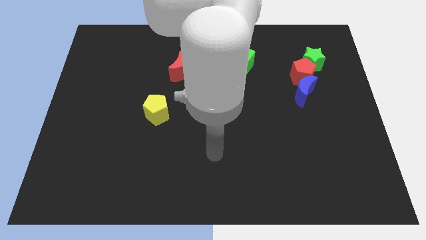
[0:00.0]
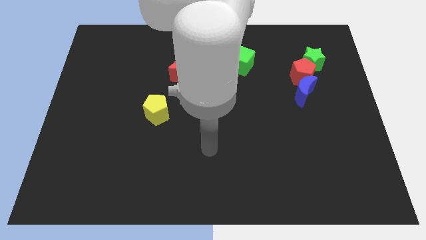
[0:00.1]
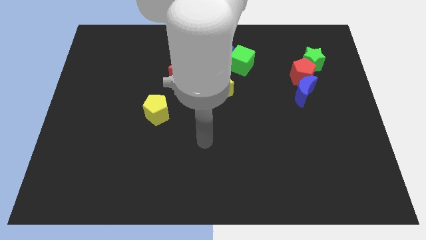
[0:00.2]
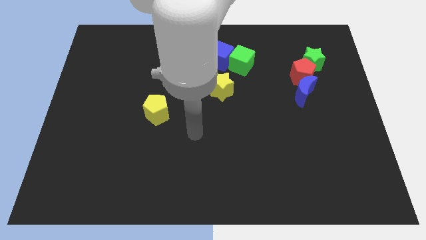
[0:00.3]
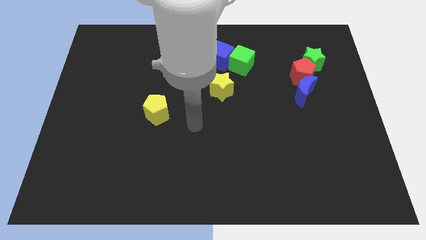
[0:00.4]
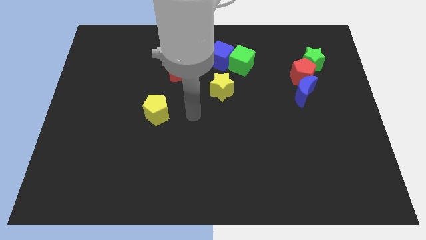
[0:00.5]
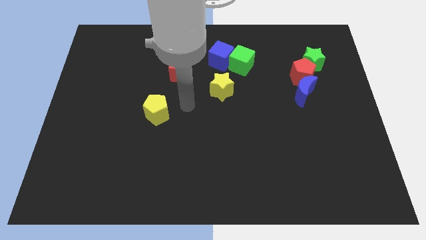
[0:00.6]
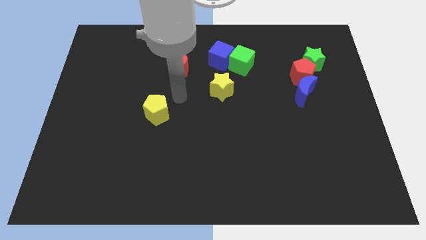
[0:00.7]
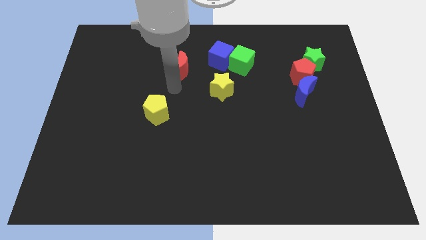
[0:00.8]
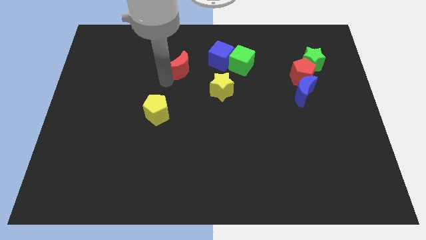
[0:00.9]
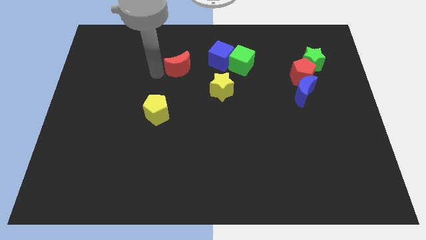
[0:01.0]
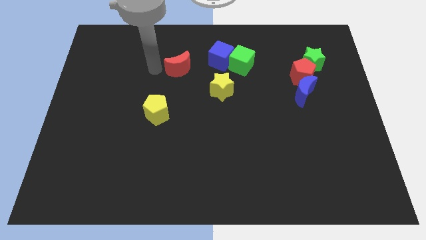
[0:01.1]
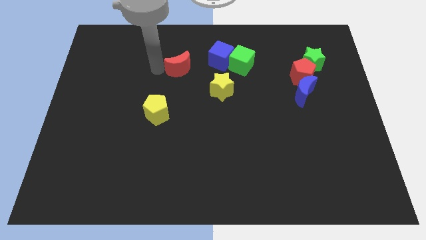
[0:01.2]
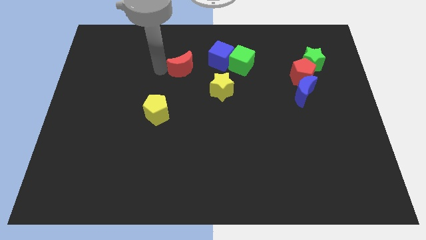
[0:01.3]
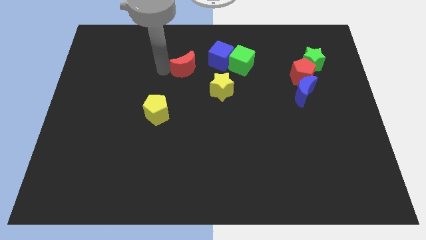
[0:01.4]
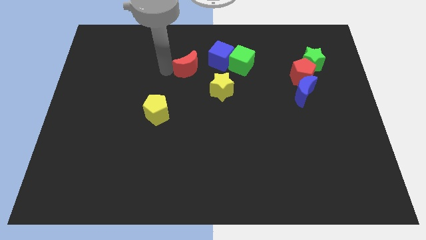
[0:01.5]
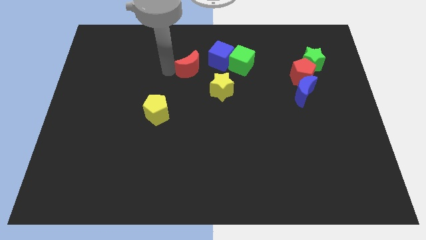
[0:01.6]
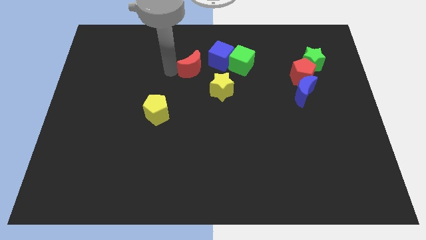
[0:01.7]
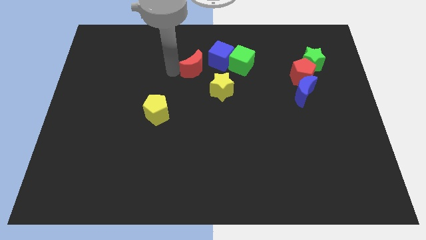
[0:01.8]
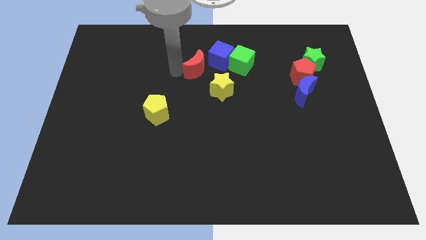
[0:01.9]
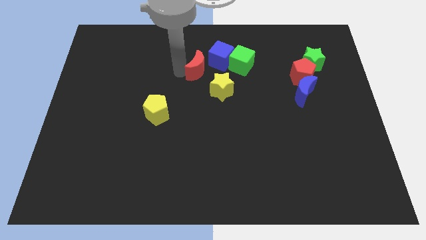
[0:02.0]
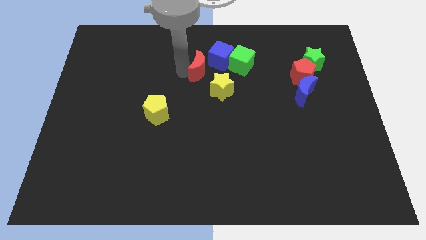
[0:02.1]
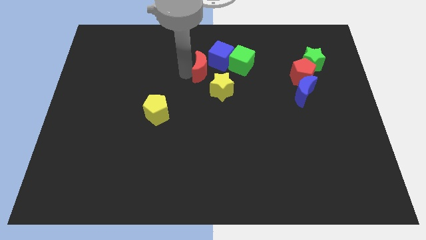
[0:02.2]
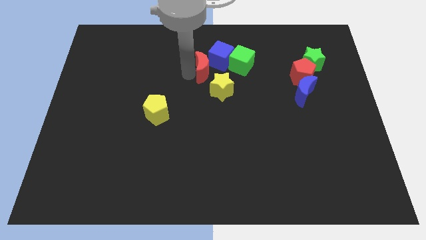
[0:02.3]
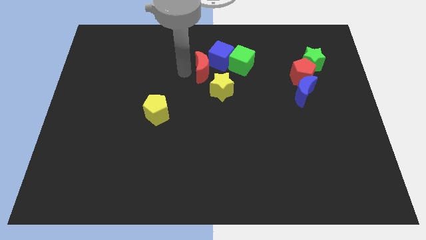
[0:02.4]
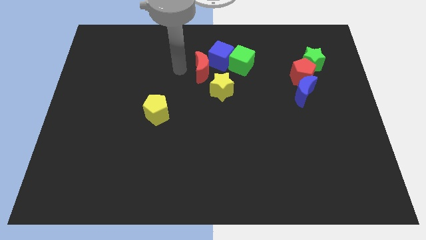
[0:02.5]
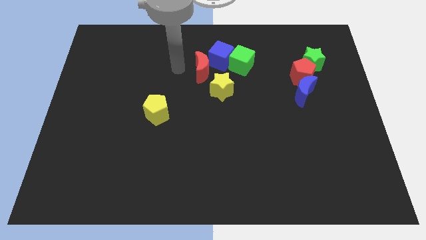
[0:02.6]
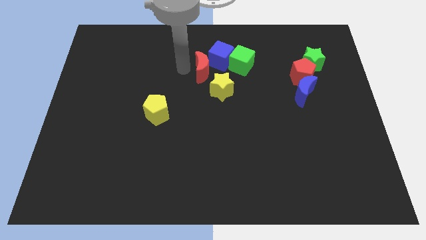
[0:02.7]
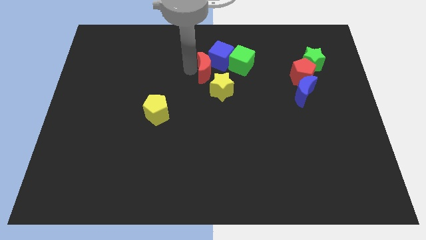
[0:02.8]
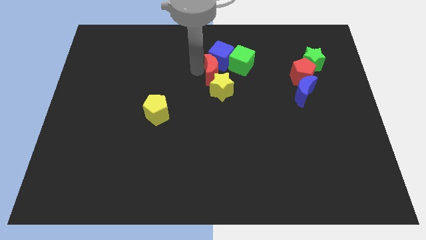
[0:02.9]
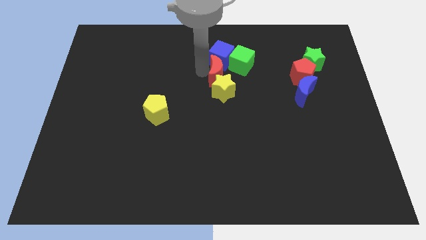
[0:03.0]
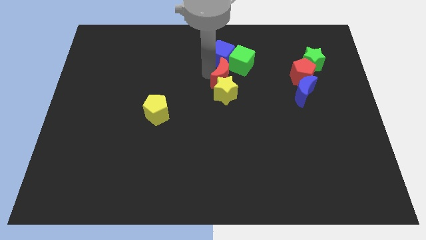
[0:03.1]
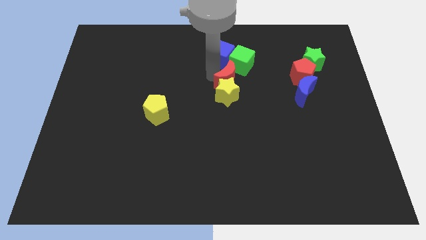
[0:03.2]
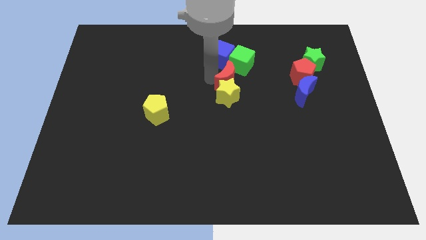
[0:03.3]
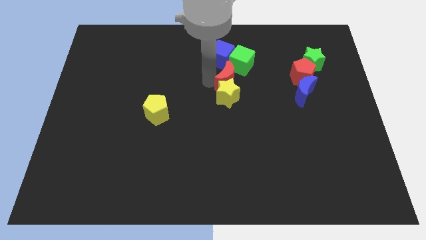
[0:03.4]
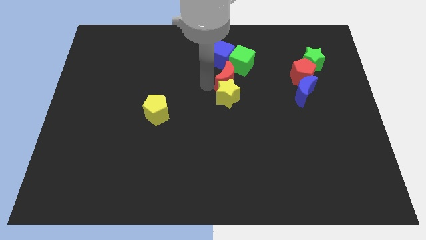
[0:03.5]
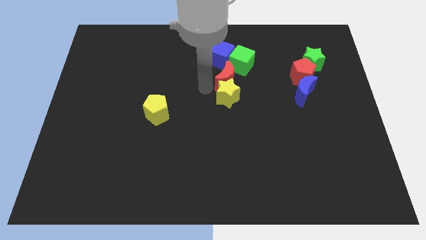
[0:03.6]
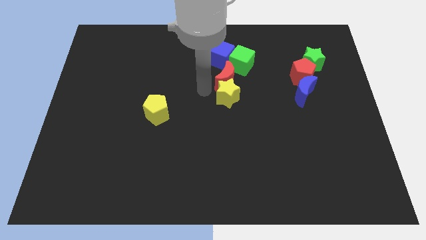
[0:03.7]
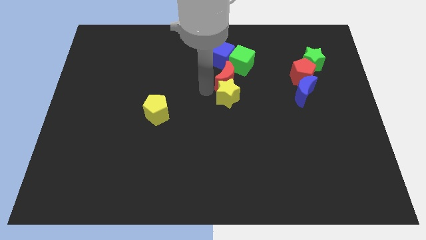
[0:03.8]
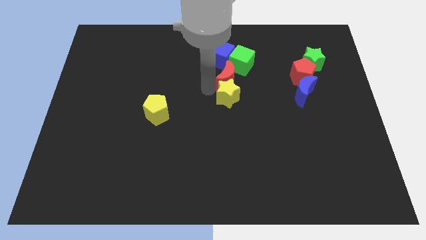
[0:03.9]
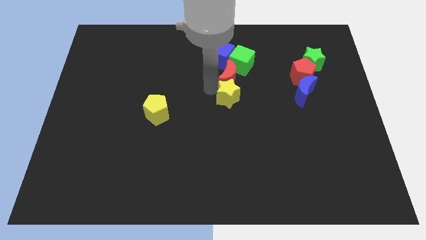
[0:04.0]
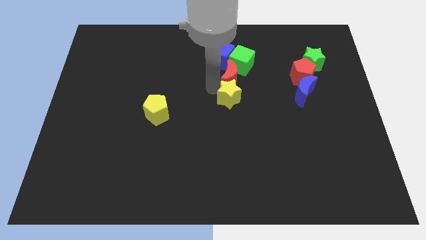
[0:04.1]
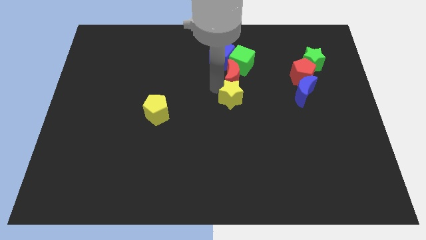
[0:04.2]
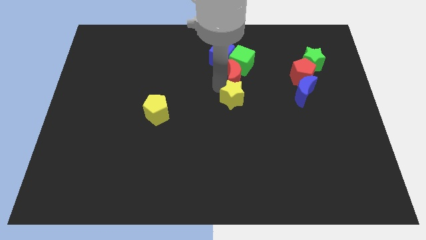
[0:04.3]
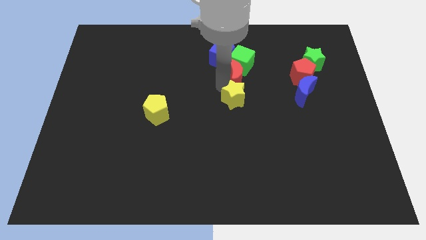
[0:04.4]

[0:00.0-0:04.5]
move the red moon to the bottom right side of the green cube

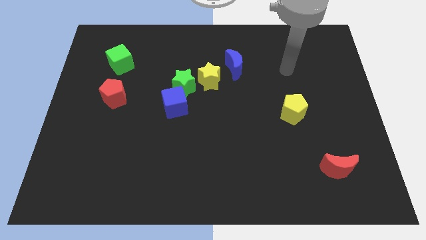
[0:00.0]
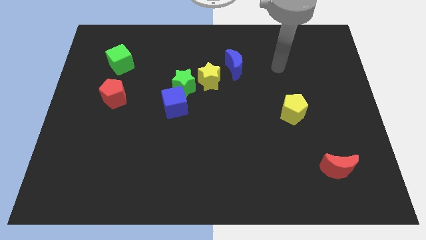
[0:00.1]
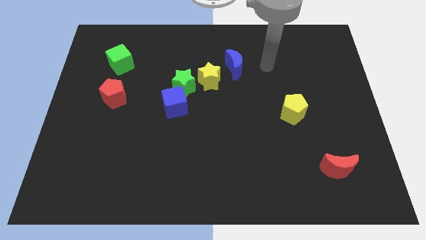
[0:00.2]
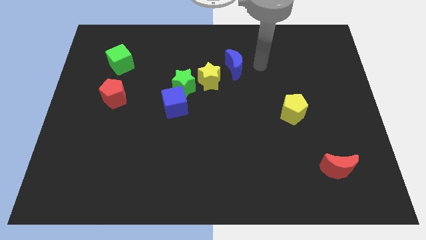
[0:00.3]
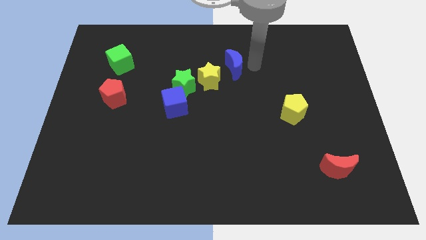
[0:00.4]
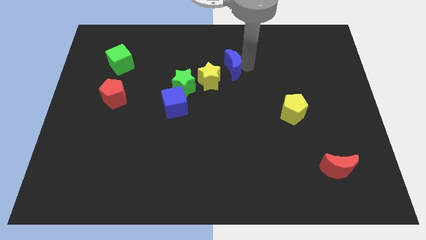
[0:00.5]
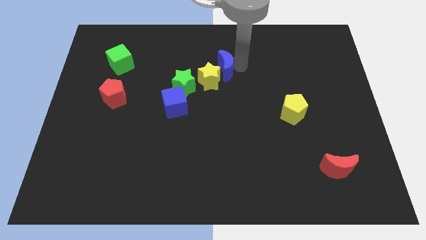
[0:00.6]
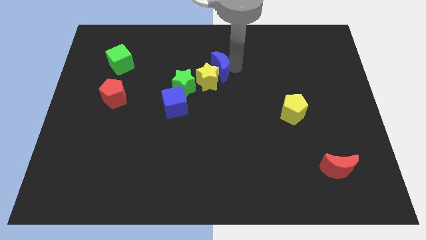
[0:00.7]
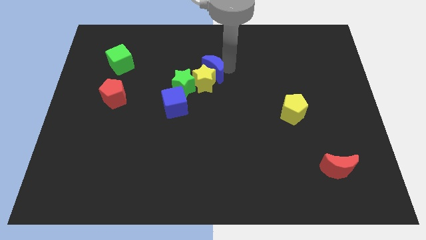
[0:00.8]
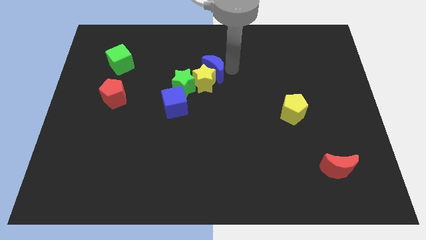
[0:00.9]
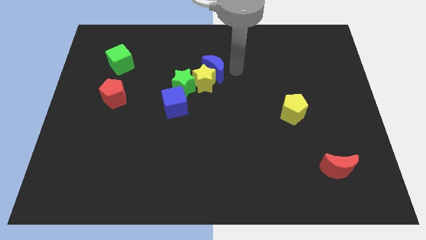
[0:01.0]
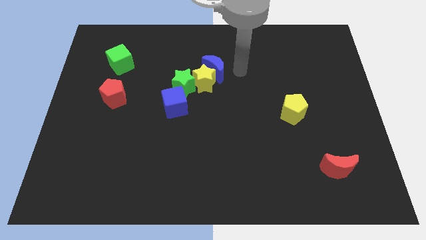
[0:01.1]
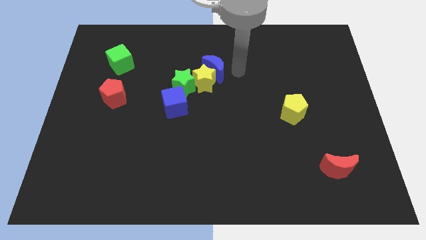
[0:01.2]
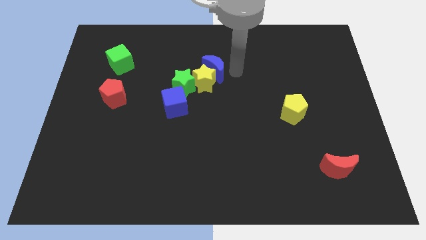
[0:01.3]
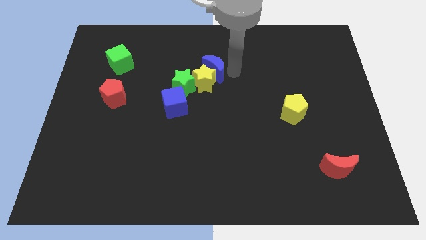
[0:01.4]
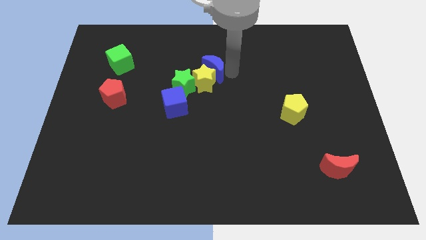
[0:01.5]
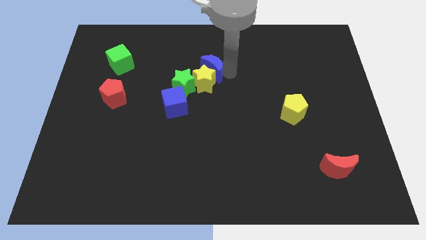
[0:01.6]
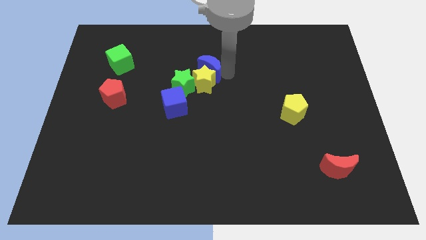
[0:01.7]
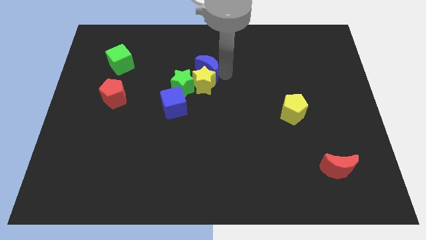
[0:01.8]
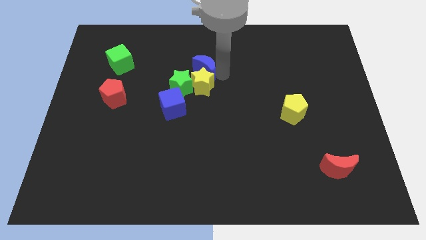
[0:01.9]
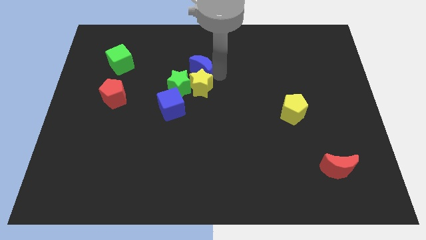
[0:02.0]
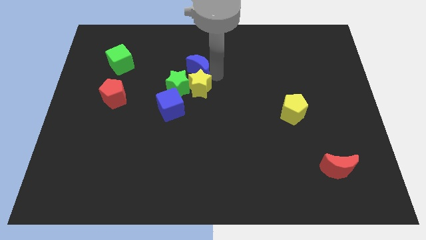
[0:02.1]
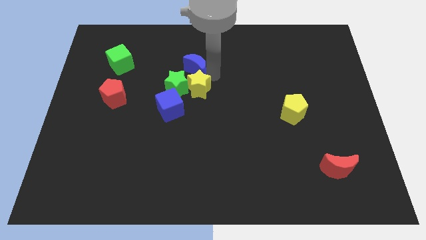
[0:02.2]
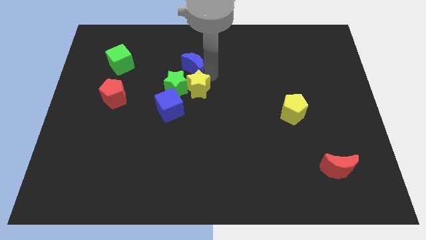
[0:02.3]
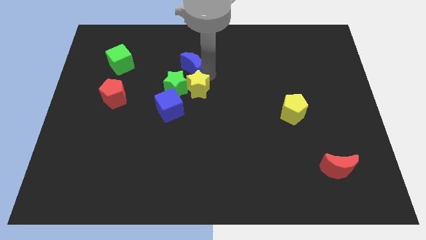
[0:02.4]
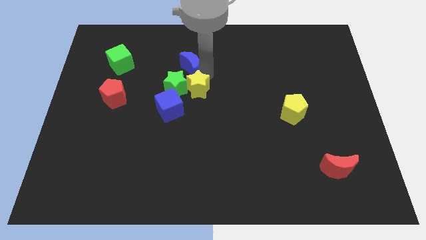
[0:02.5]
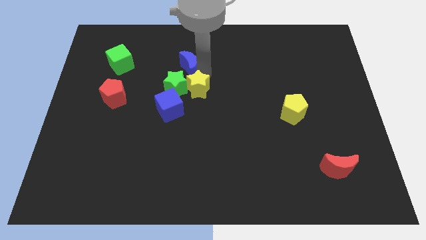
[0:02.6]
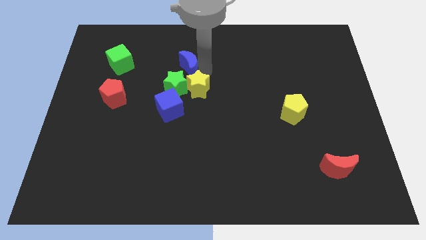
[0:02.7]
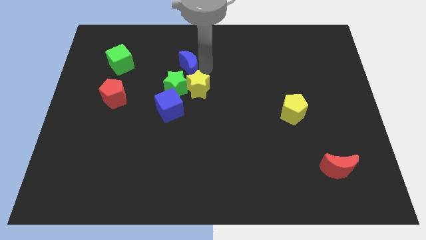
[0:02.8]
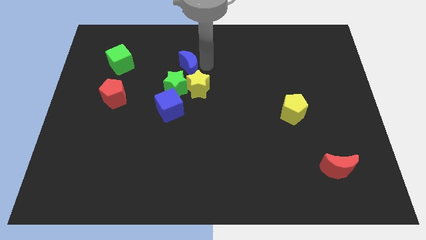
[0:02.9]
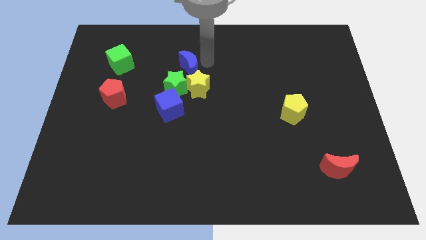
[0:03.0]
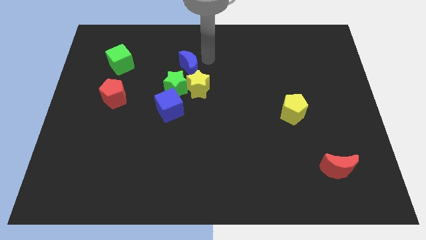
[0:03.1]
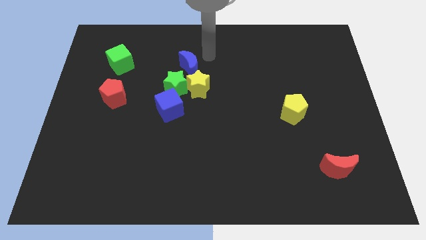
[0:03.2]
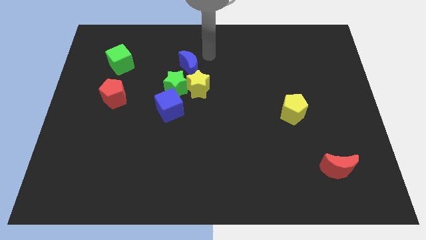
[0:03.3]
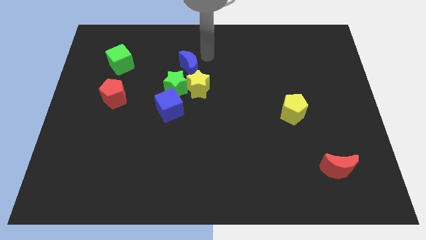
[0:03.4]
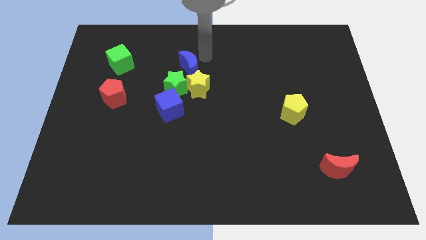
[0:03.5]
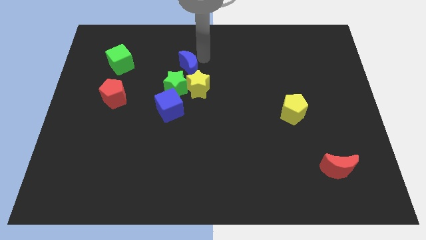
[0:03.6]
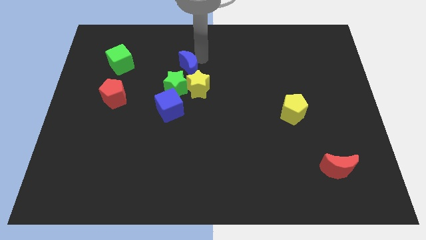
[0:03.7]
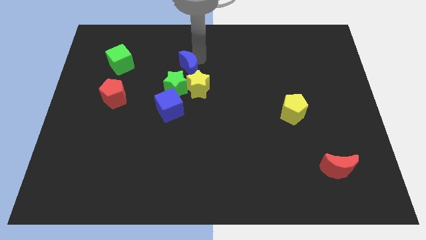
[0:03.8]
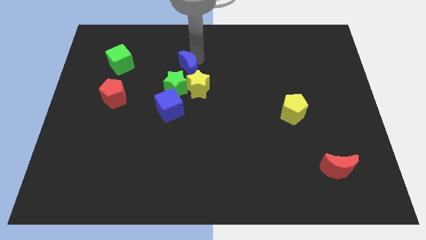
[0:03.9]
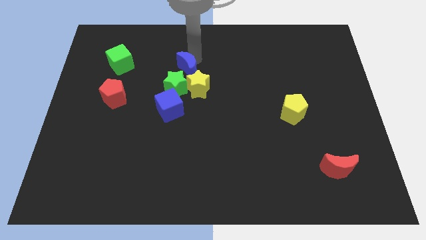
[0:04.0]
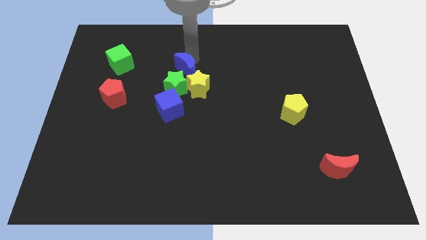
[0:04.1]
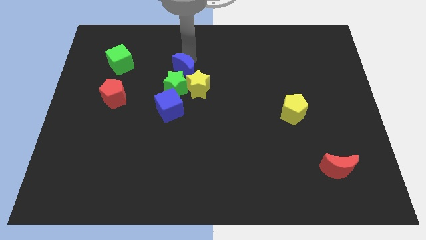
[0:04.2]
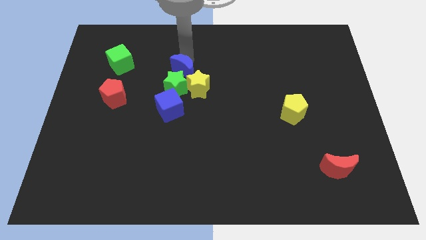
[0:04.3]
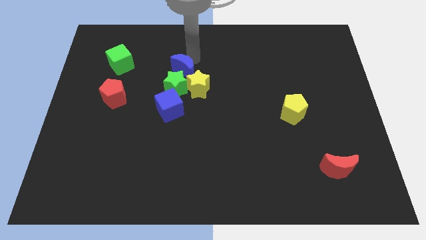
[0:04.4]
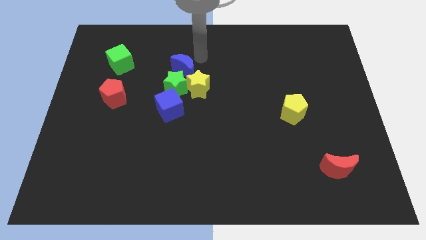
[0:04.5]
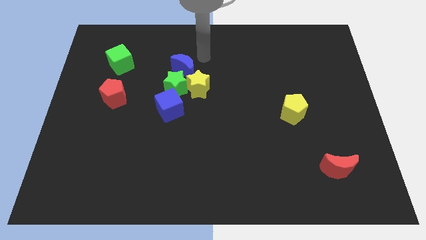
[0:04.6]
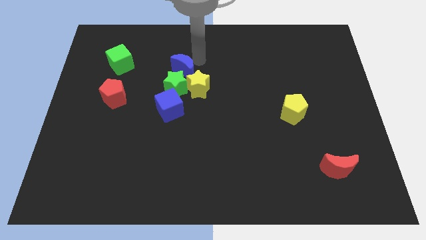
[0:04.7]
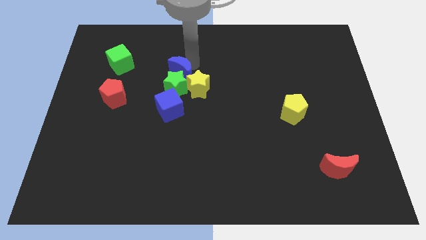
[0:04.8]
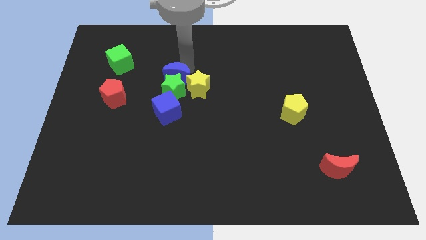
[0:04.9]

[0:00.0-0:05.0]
move the blue moon to the left of the yellow star
